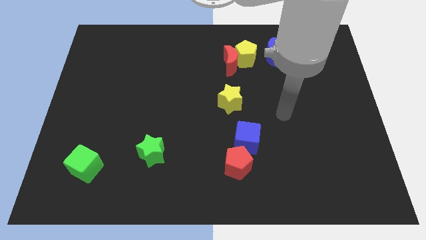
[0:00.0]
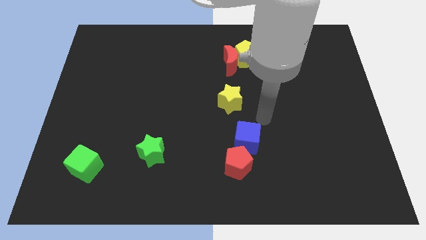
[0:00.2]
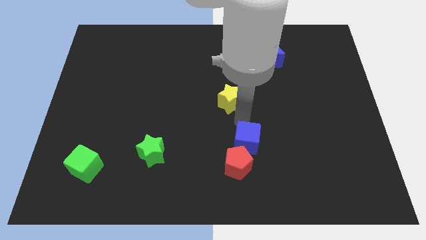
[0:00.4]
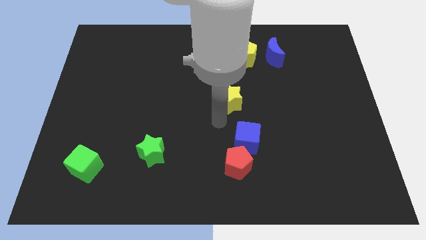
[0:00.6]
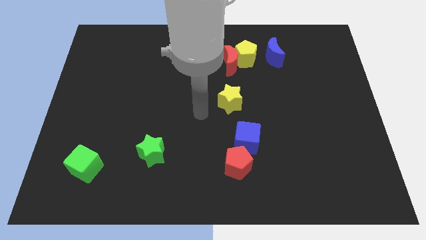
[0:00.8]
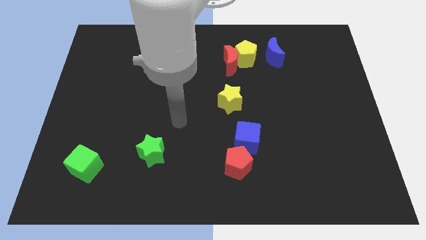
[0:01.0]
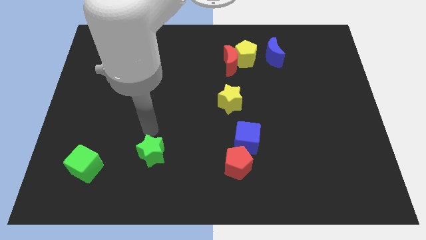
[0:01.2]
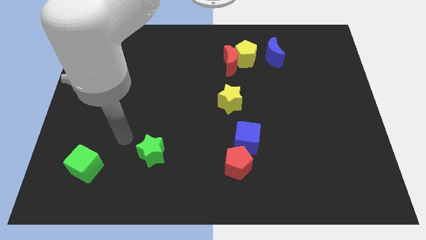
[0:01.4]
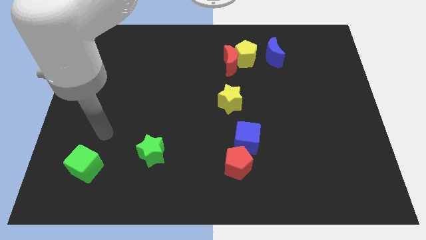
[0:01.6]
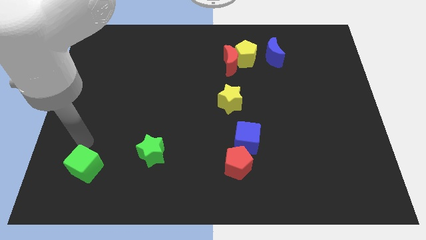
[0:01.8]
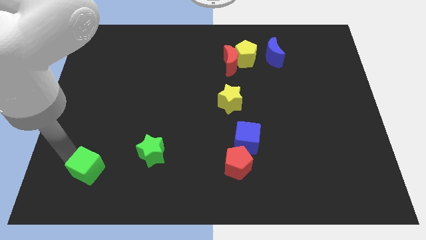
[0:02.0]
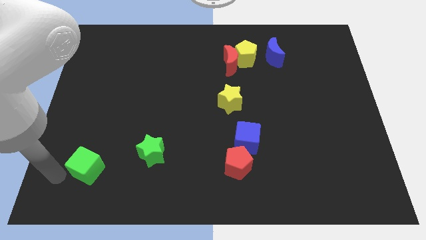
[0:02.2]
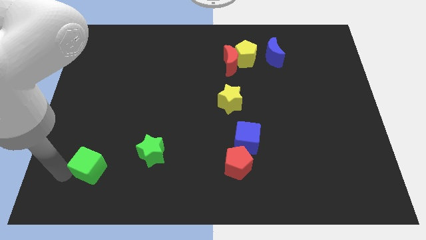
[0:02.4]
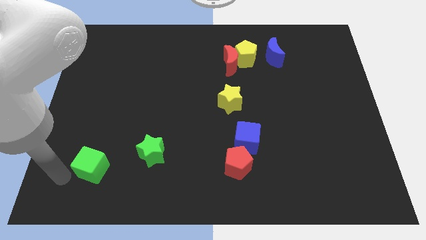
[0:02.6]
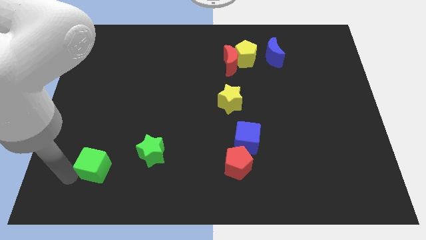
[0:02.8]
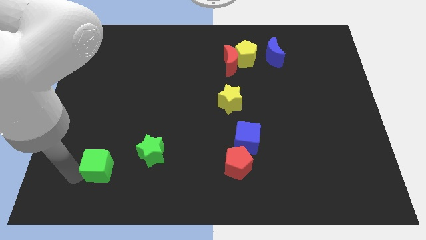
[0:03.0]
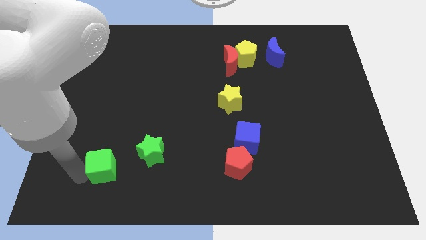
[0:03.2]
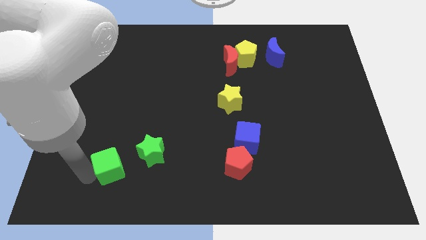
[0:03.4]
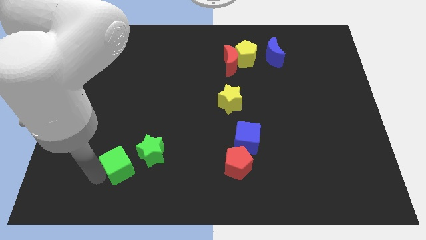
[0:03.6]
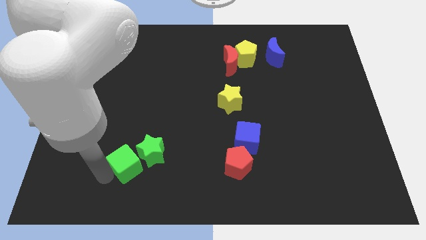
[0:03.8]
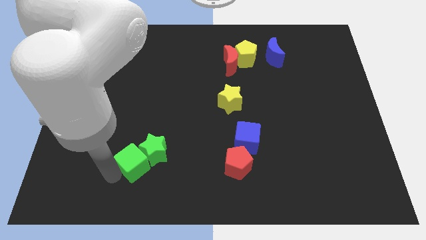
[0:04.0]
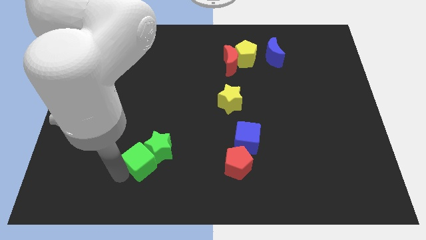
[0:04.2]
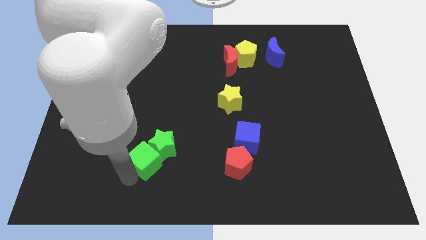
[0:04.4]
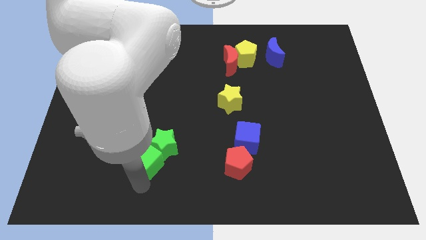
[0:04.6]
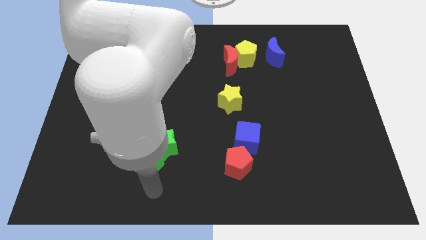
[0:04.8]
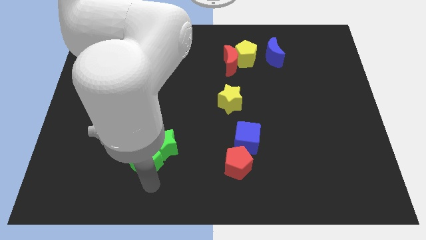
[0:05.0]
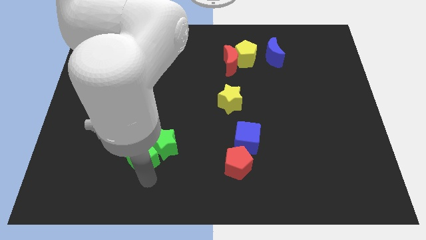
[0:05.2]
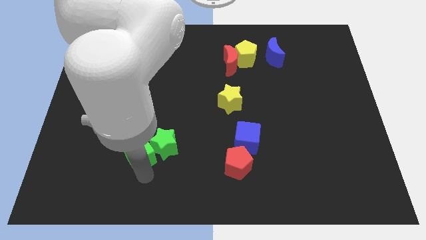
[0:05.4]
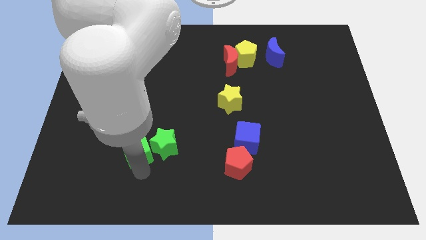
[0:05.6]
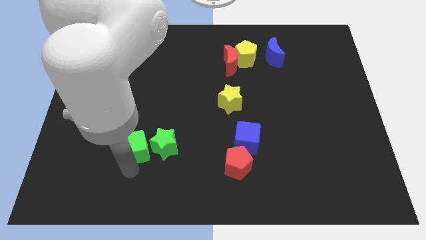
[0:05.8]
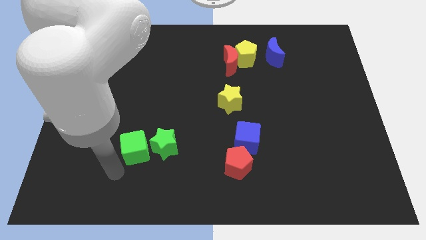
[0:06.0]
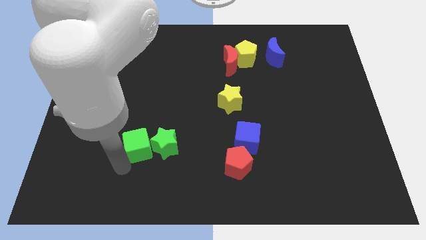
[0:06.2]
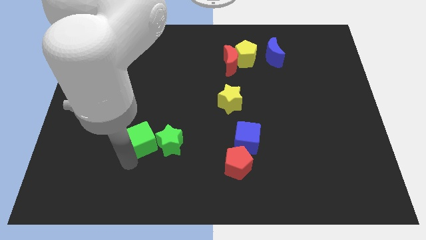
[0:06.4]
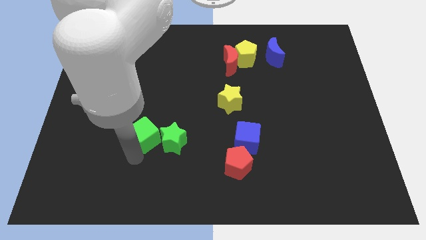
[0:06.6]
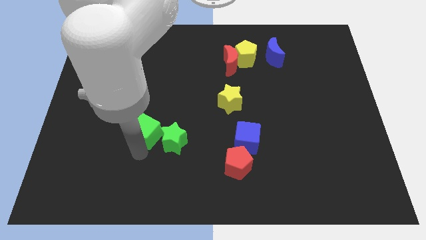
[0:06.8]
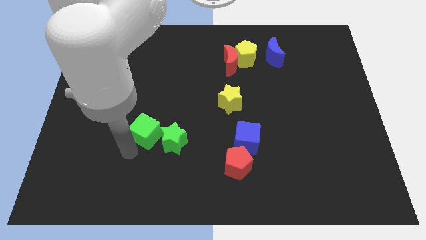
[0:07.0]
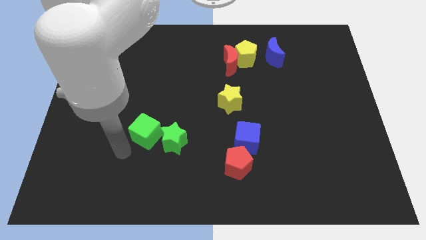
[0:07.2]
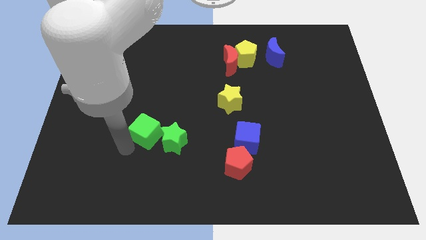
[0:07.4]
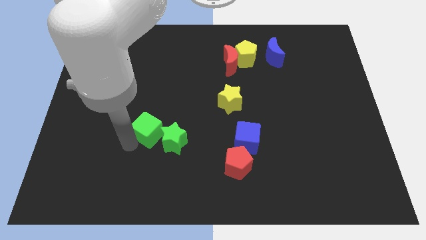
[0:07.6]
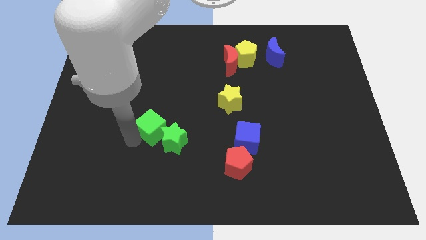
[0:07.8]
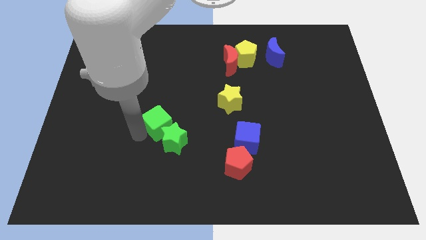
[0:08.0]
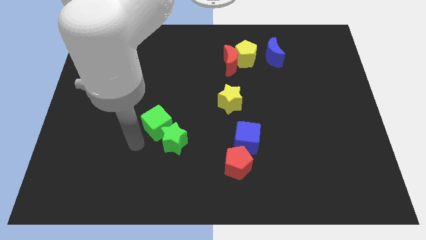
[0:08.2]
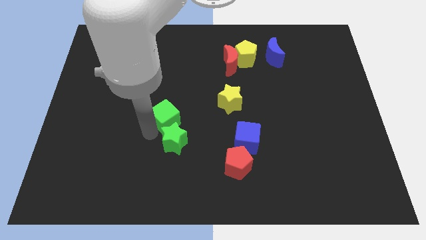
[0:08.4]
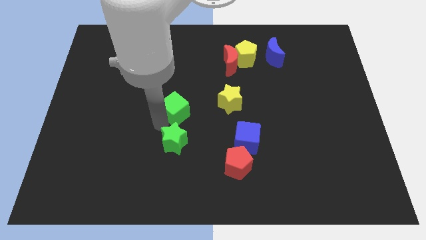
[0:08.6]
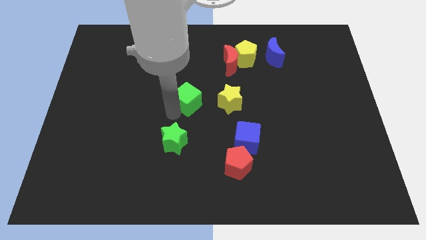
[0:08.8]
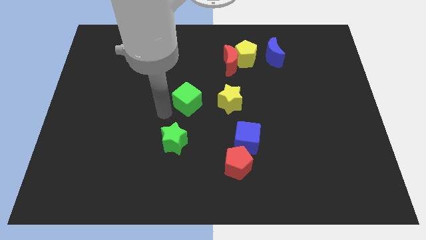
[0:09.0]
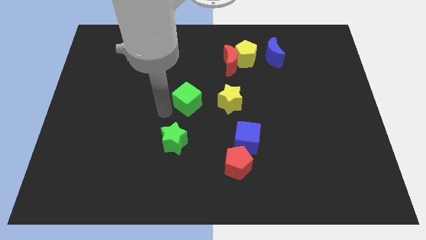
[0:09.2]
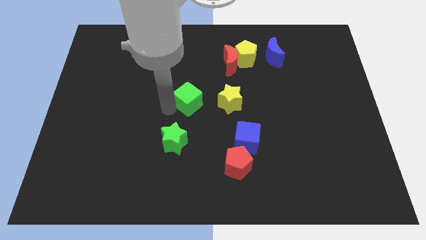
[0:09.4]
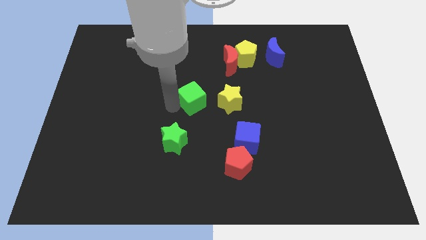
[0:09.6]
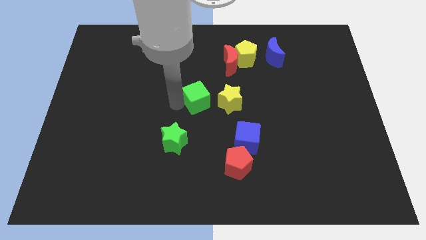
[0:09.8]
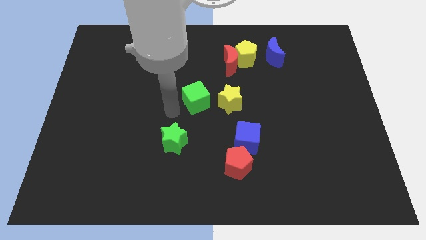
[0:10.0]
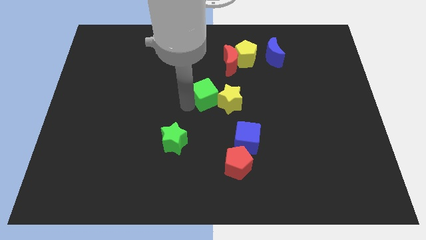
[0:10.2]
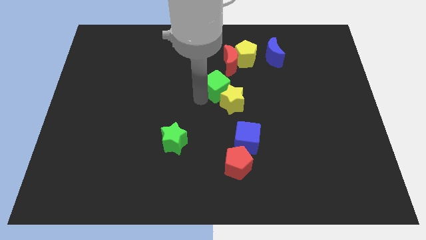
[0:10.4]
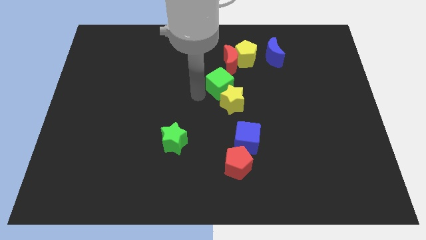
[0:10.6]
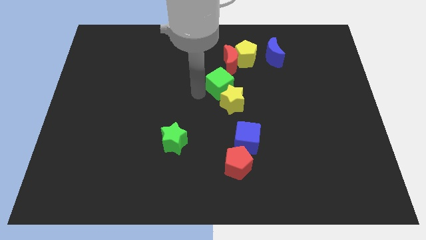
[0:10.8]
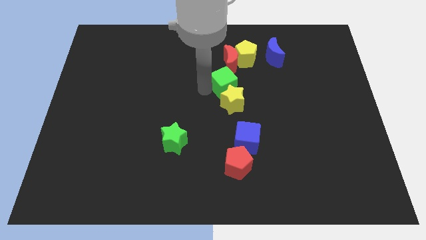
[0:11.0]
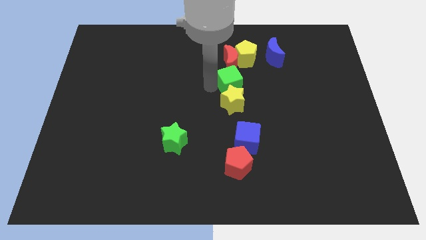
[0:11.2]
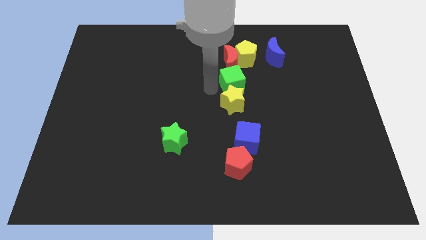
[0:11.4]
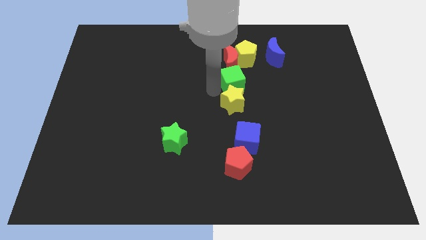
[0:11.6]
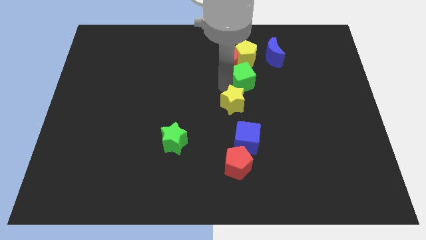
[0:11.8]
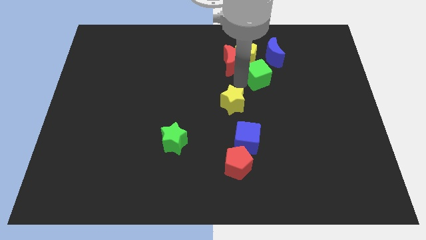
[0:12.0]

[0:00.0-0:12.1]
move the green cube to the right side of the red moon

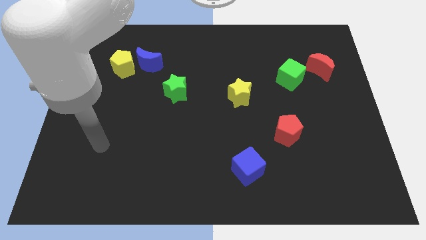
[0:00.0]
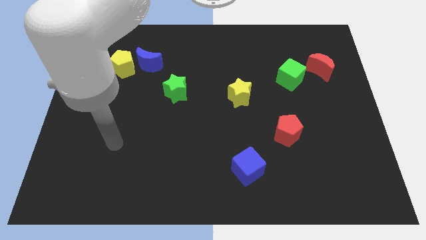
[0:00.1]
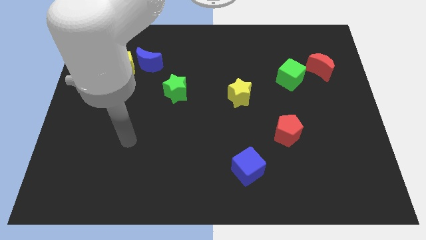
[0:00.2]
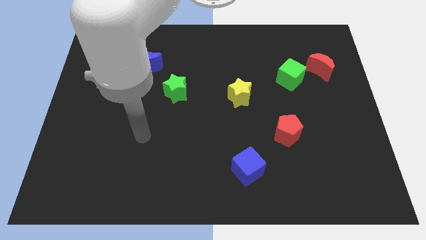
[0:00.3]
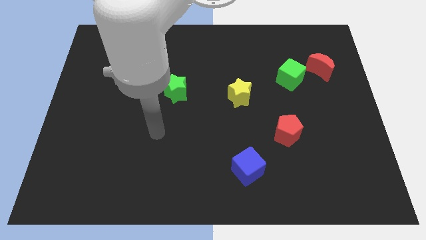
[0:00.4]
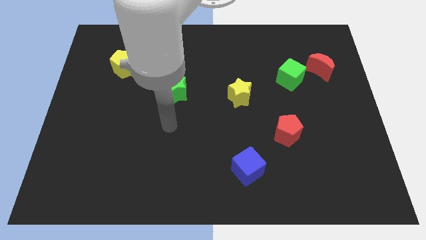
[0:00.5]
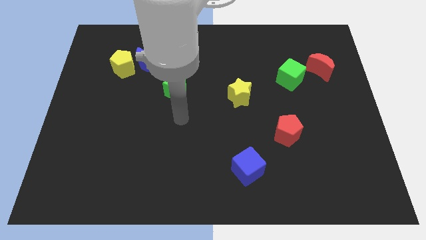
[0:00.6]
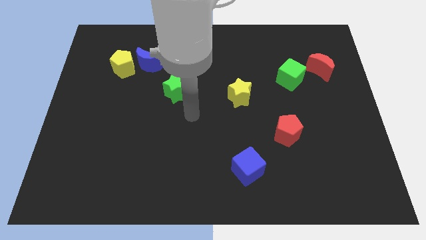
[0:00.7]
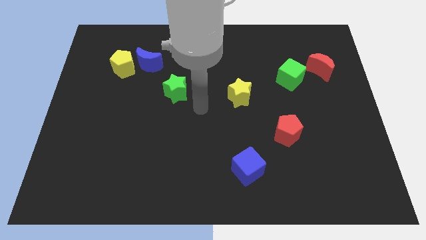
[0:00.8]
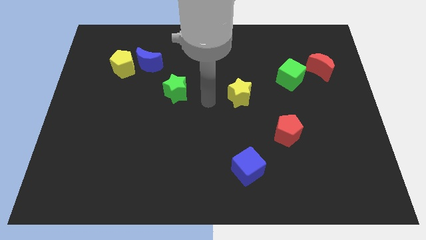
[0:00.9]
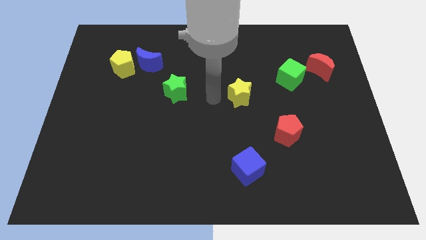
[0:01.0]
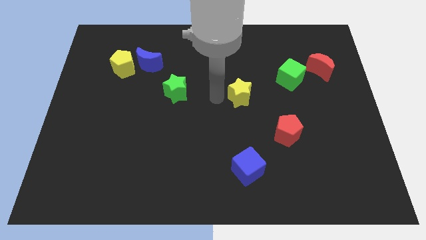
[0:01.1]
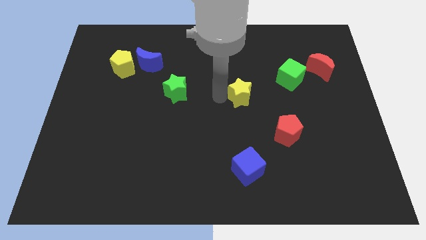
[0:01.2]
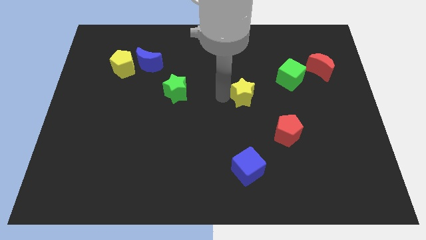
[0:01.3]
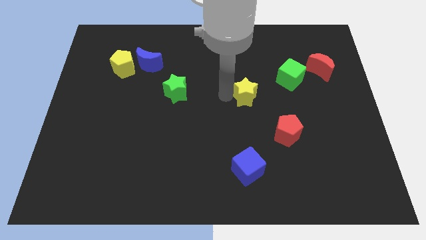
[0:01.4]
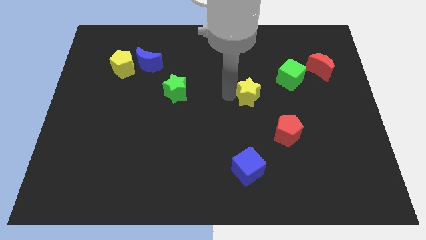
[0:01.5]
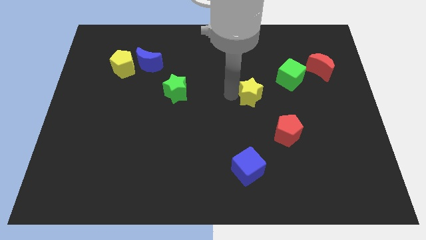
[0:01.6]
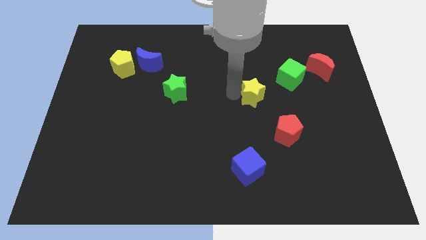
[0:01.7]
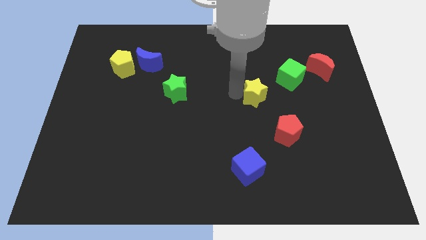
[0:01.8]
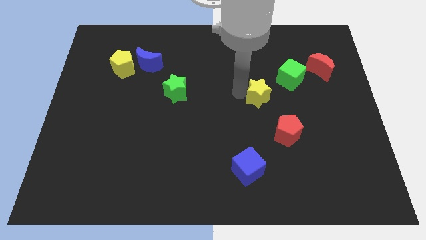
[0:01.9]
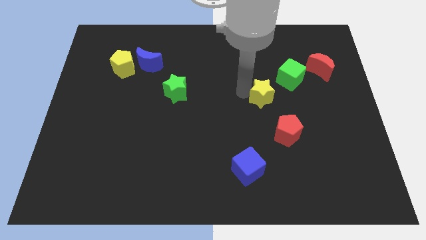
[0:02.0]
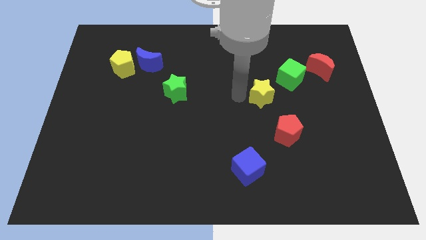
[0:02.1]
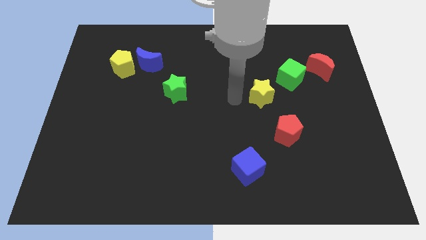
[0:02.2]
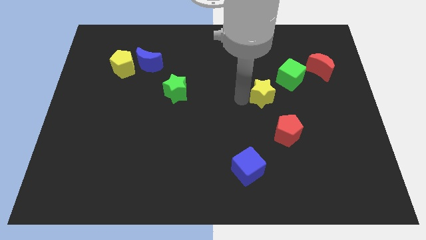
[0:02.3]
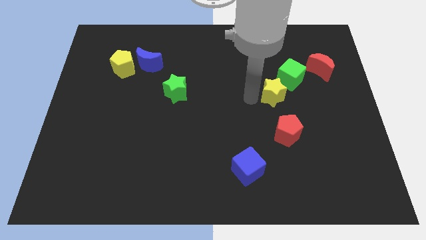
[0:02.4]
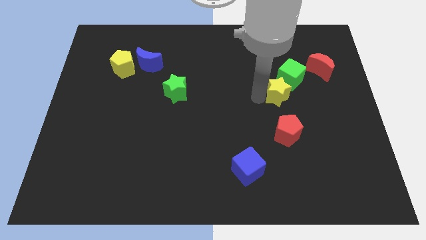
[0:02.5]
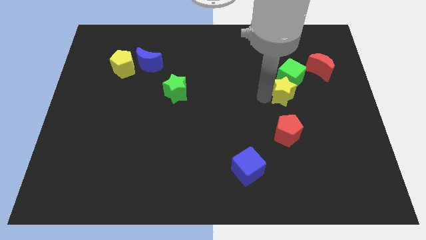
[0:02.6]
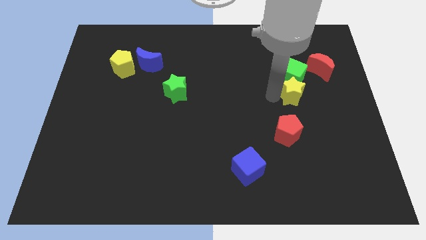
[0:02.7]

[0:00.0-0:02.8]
slide the yellow star to the bottom right side of the green cube
